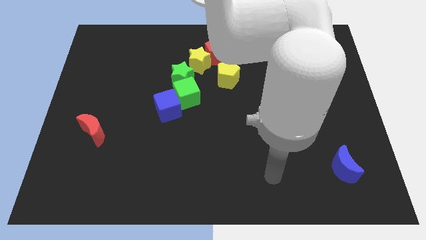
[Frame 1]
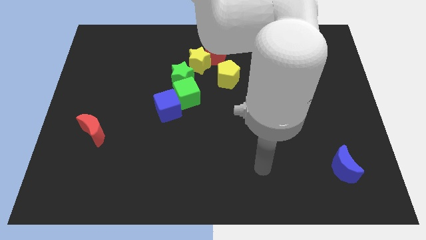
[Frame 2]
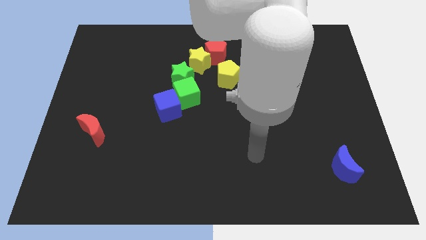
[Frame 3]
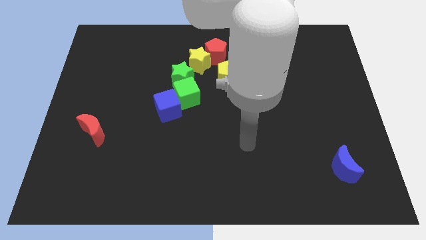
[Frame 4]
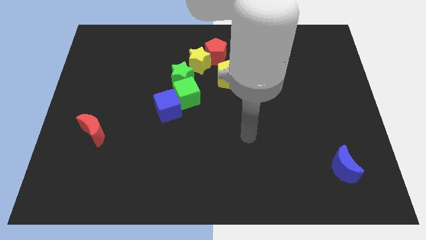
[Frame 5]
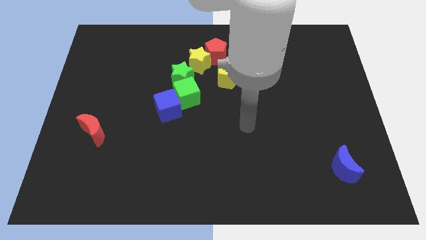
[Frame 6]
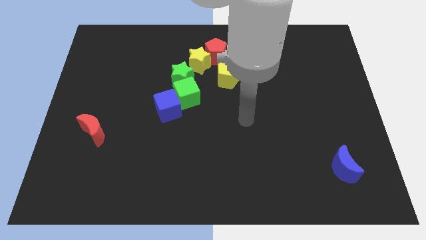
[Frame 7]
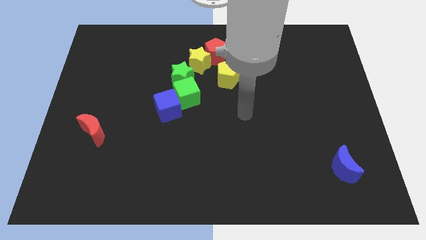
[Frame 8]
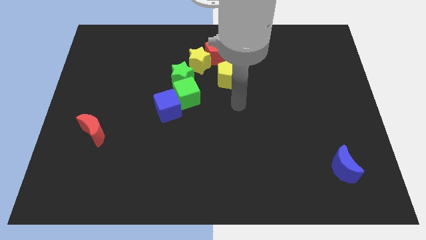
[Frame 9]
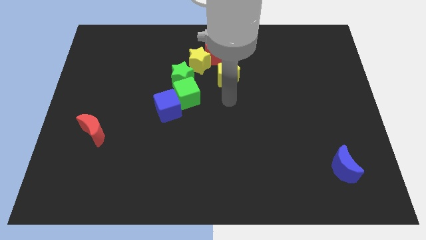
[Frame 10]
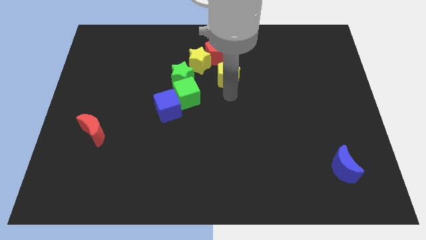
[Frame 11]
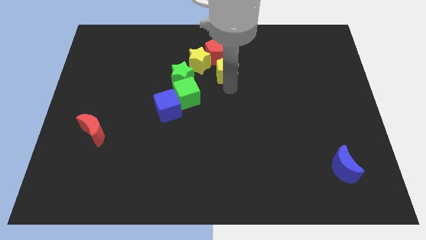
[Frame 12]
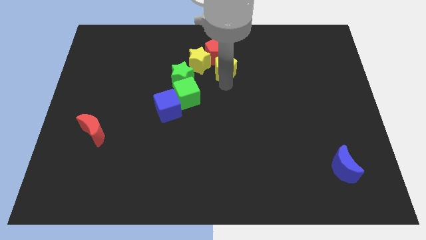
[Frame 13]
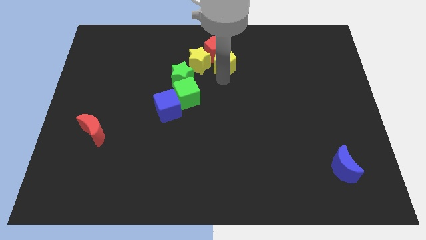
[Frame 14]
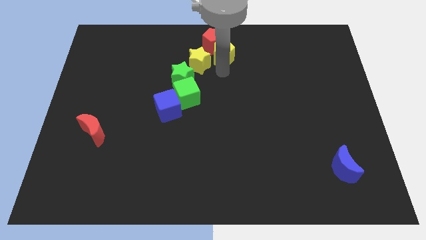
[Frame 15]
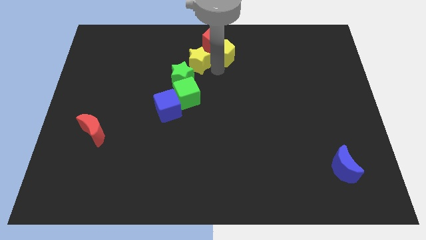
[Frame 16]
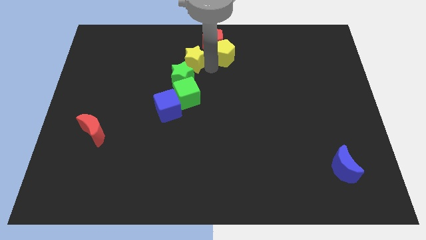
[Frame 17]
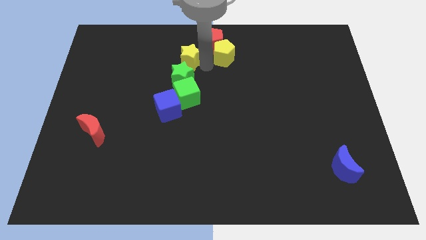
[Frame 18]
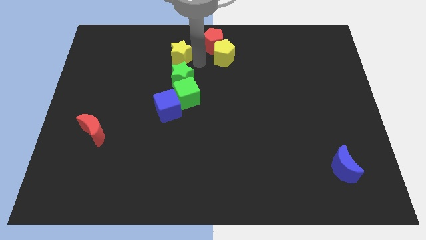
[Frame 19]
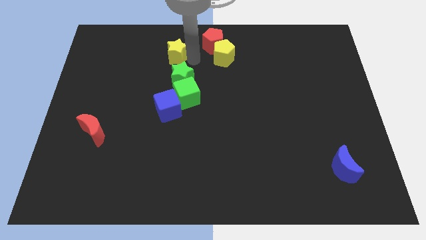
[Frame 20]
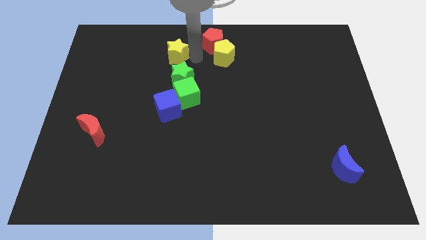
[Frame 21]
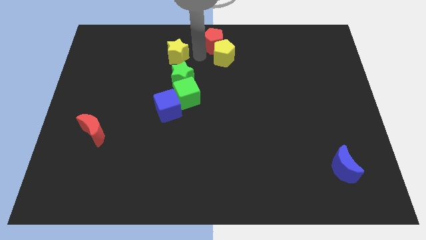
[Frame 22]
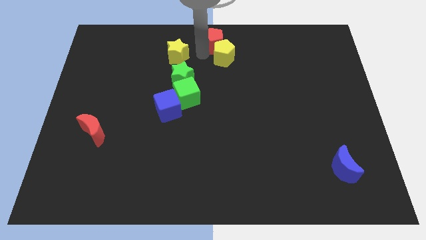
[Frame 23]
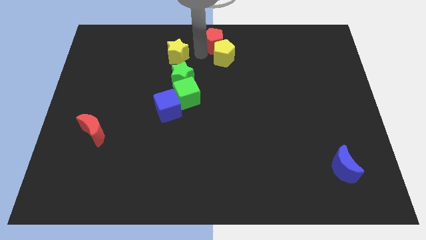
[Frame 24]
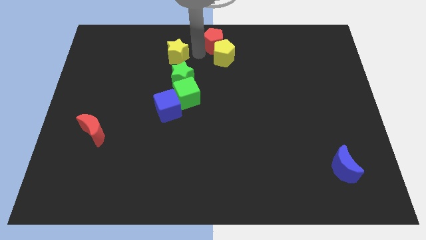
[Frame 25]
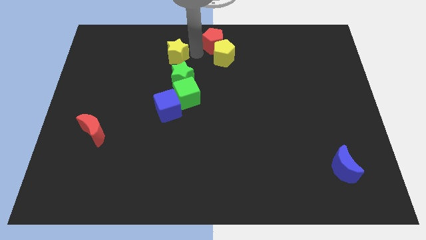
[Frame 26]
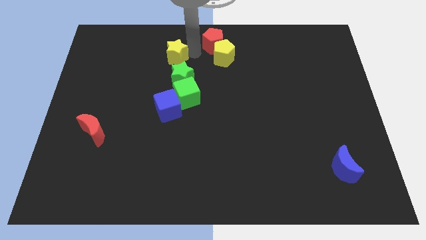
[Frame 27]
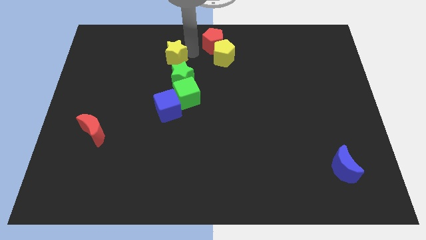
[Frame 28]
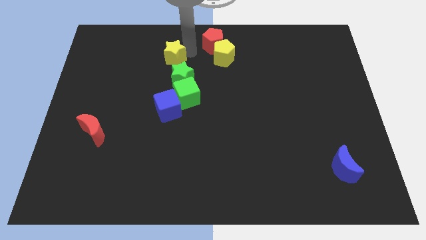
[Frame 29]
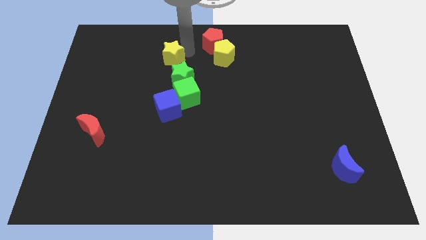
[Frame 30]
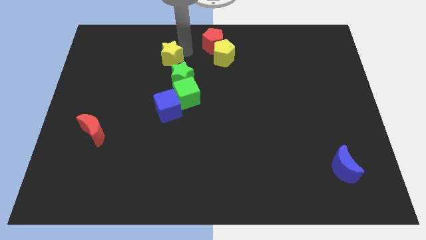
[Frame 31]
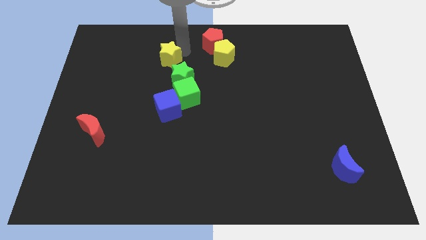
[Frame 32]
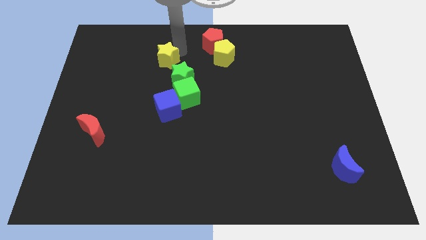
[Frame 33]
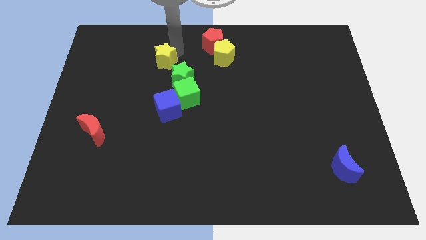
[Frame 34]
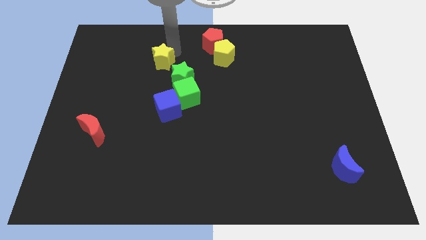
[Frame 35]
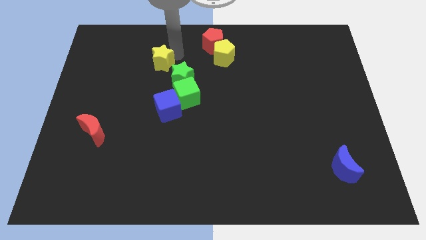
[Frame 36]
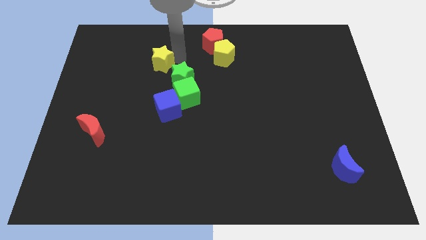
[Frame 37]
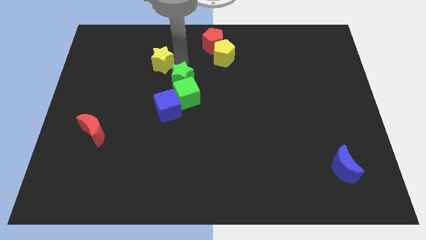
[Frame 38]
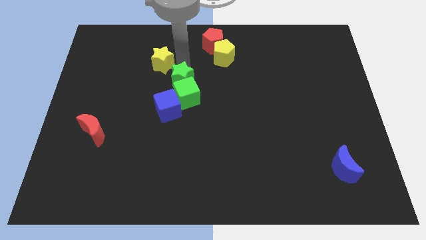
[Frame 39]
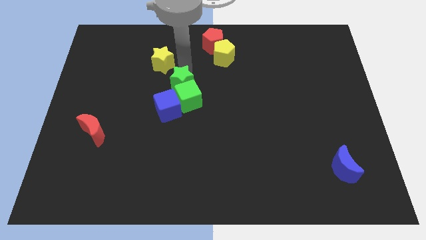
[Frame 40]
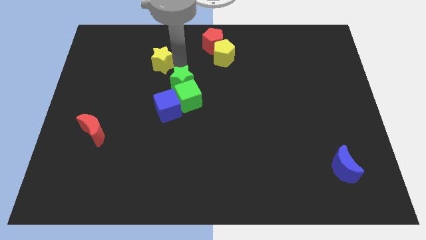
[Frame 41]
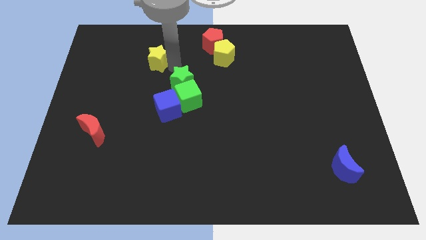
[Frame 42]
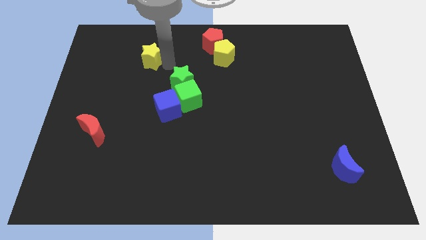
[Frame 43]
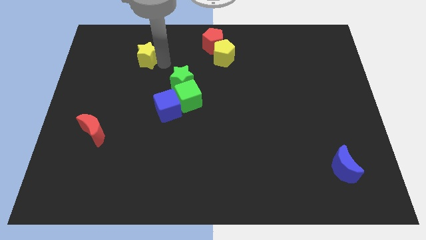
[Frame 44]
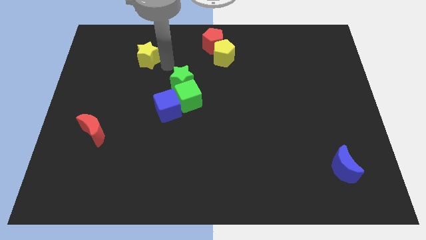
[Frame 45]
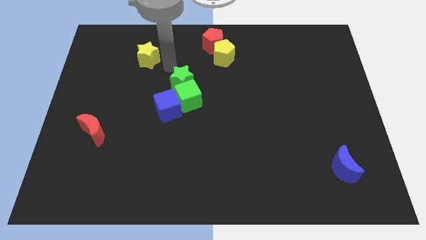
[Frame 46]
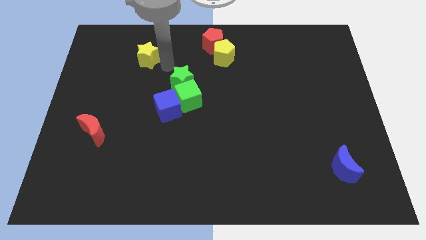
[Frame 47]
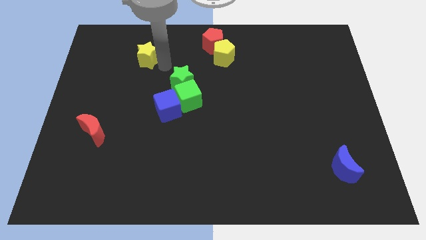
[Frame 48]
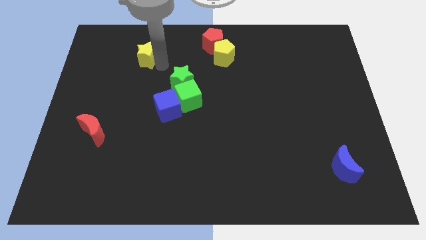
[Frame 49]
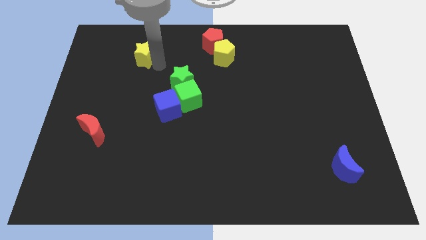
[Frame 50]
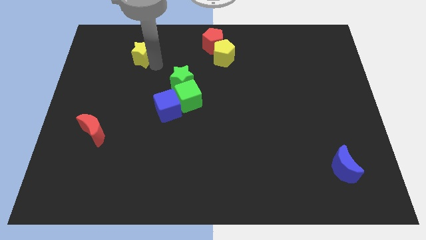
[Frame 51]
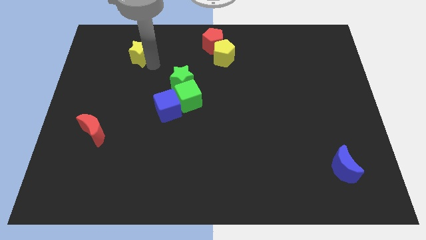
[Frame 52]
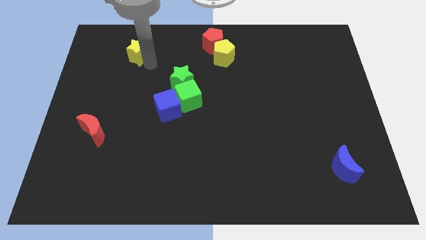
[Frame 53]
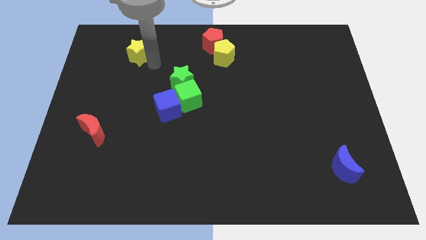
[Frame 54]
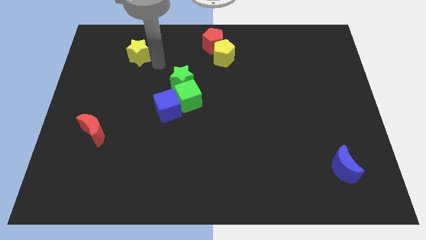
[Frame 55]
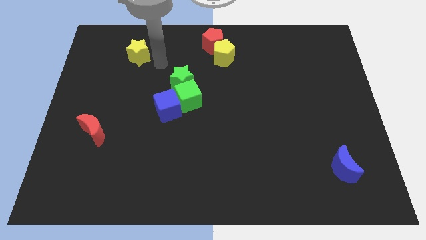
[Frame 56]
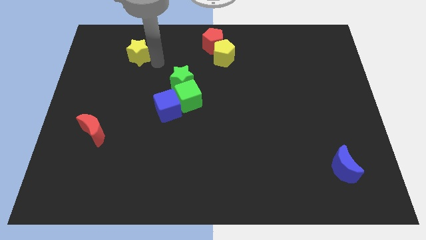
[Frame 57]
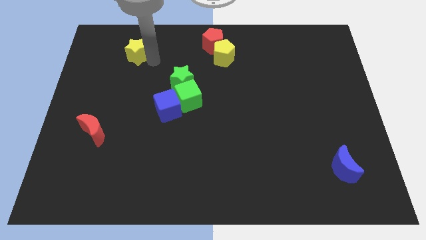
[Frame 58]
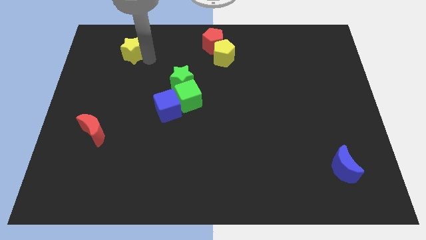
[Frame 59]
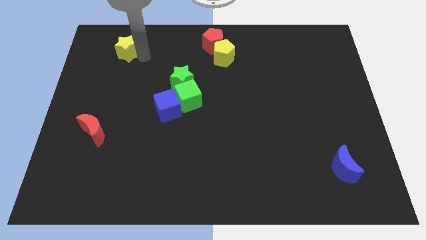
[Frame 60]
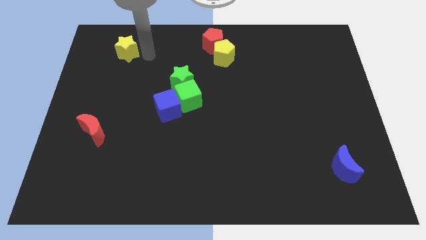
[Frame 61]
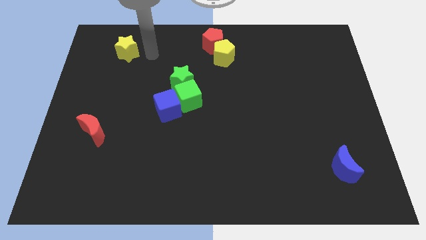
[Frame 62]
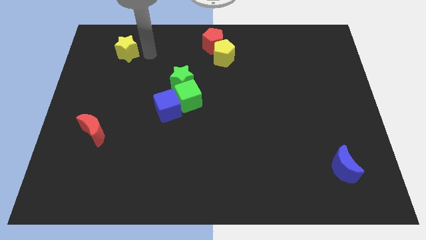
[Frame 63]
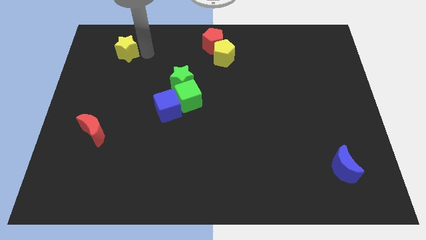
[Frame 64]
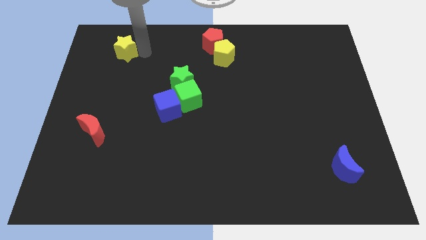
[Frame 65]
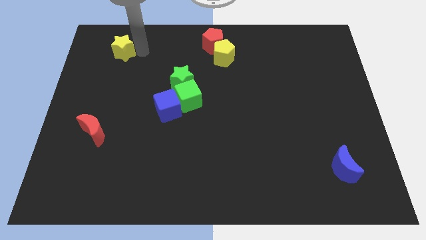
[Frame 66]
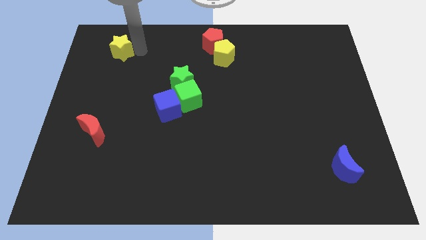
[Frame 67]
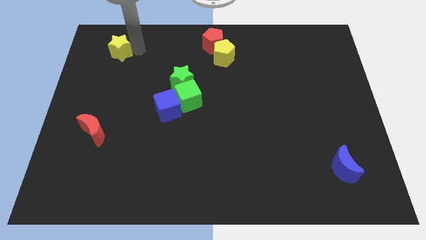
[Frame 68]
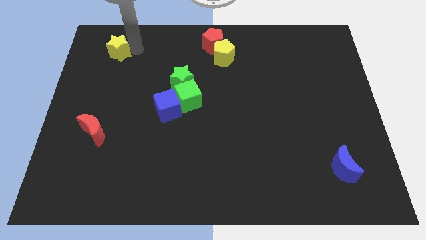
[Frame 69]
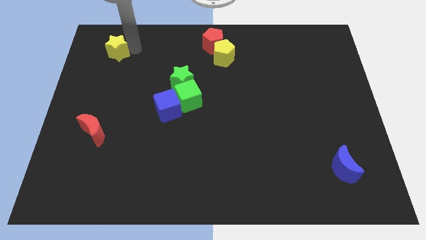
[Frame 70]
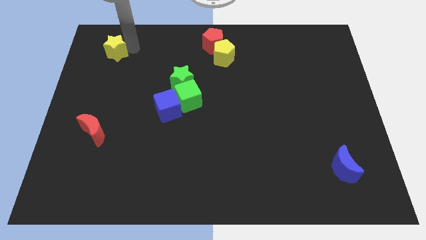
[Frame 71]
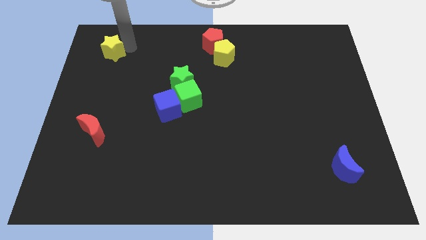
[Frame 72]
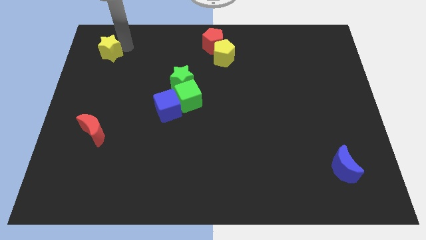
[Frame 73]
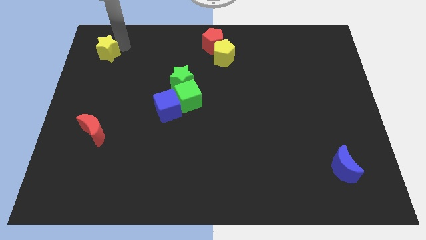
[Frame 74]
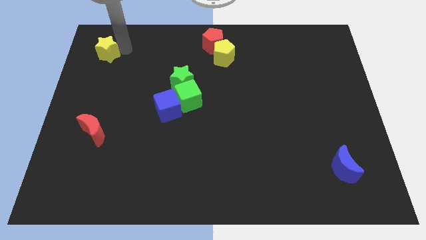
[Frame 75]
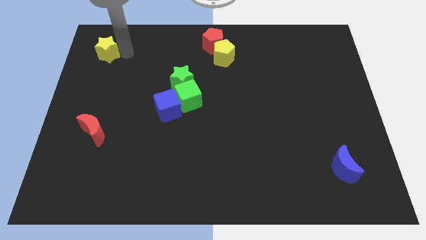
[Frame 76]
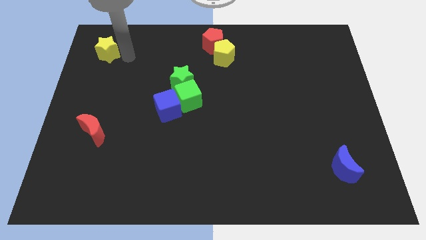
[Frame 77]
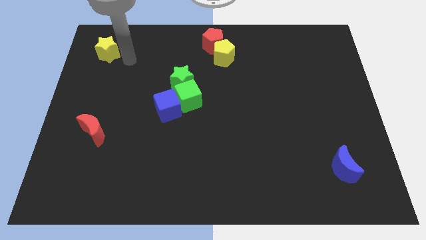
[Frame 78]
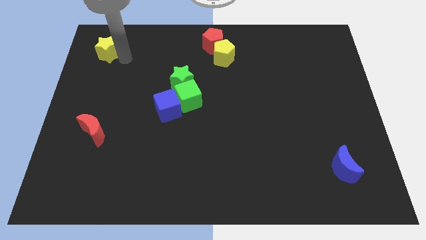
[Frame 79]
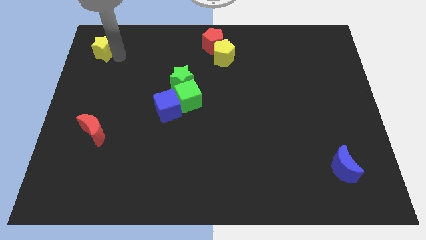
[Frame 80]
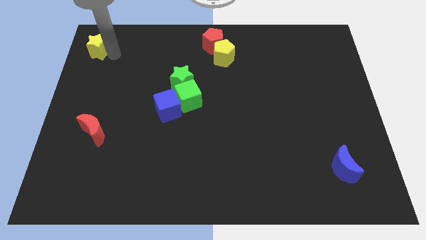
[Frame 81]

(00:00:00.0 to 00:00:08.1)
push the yellow star to the top left of the board
